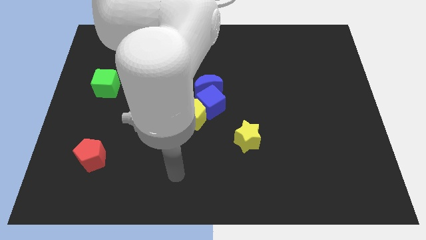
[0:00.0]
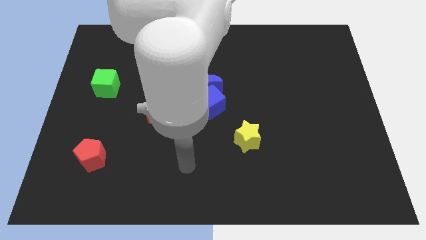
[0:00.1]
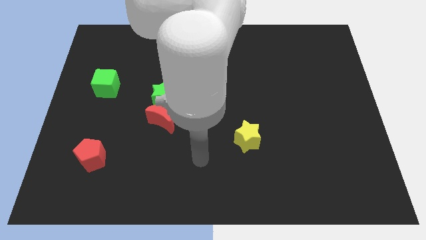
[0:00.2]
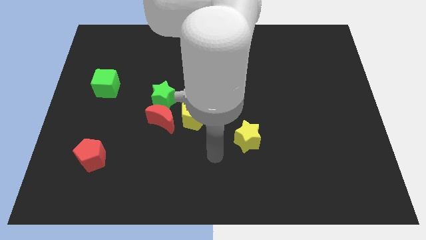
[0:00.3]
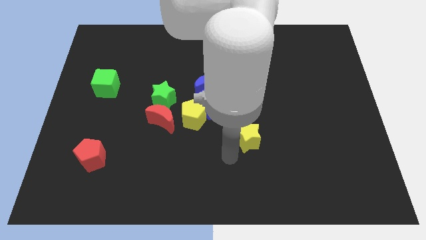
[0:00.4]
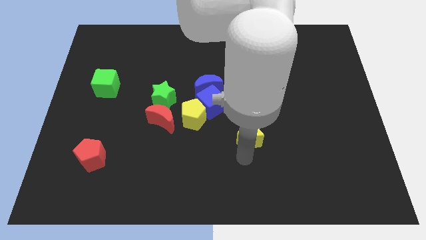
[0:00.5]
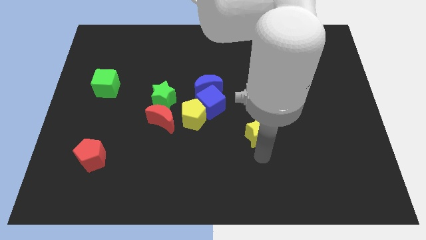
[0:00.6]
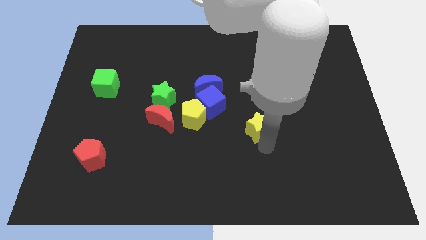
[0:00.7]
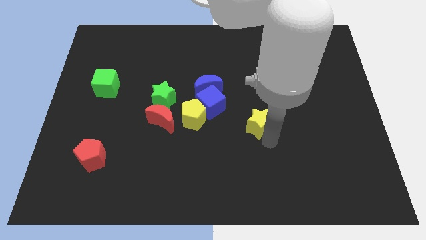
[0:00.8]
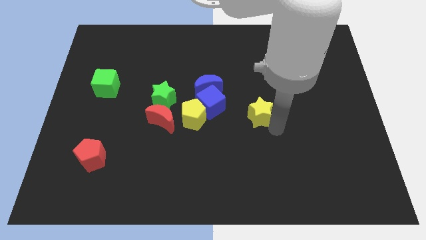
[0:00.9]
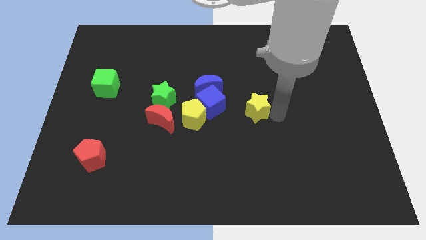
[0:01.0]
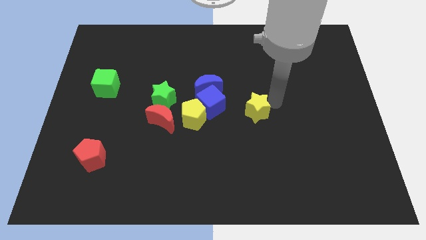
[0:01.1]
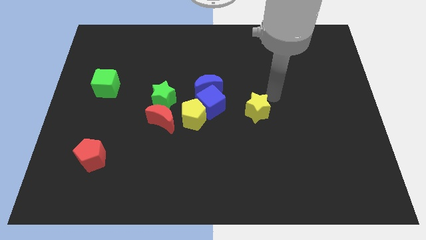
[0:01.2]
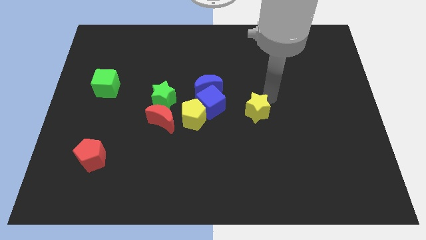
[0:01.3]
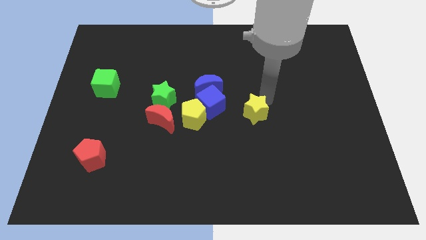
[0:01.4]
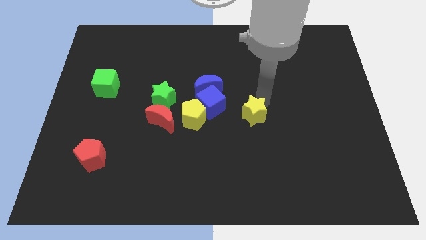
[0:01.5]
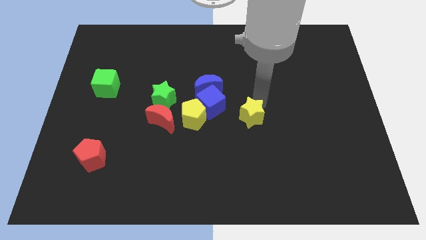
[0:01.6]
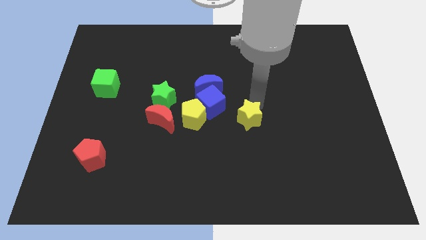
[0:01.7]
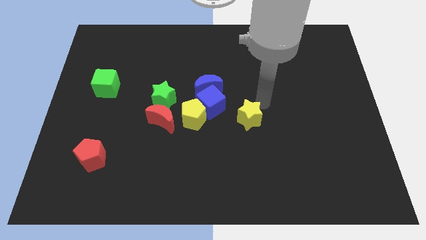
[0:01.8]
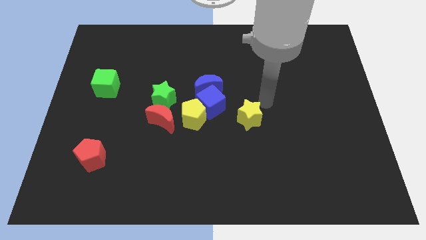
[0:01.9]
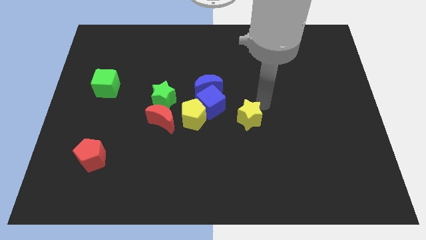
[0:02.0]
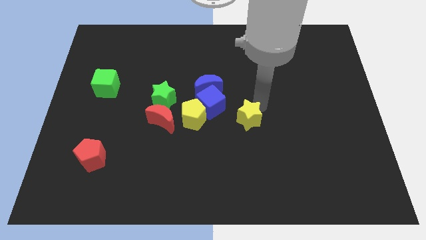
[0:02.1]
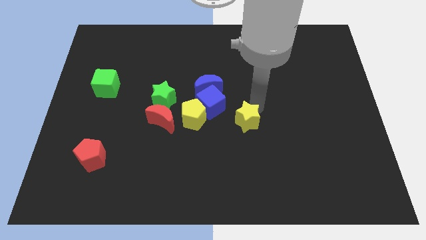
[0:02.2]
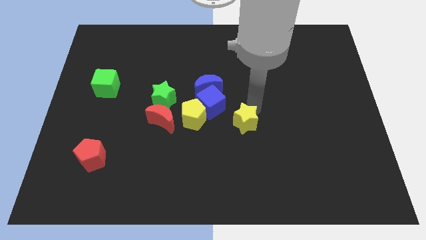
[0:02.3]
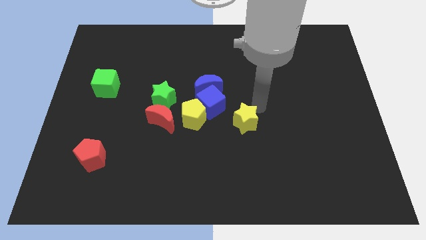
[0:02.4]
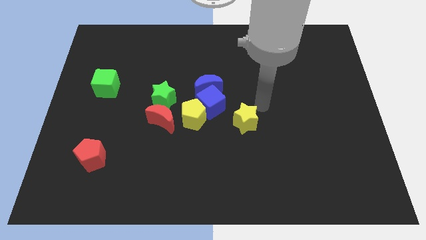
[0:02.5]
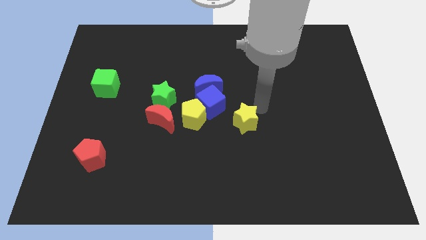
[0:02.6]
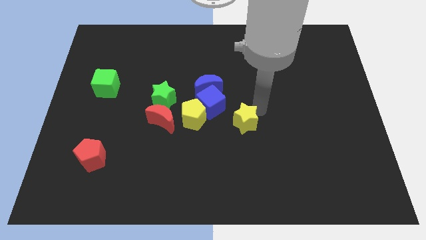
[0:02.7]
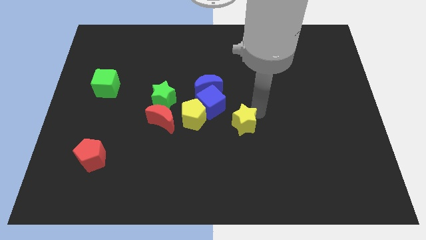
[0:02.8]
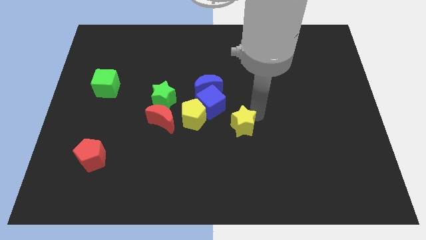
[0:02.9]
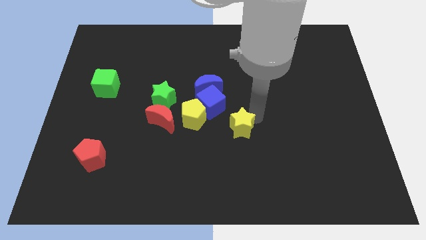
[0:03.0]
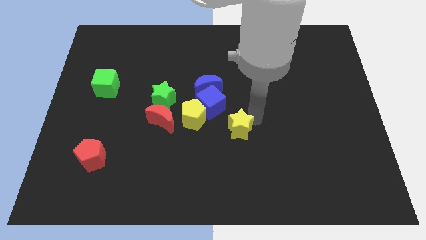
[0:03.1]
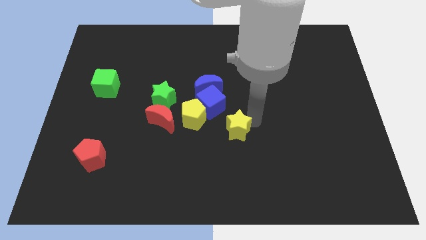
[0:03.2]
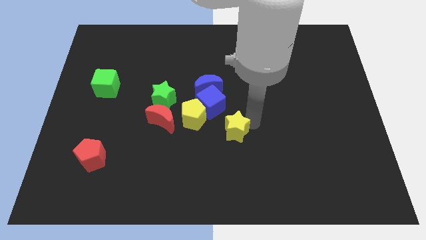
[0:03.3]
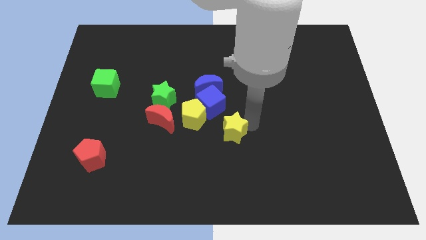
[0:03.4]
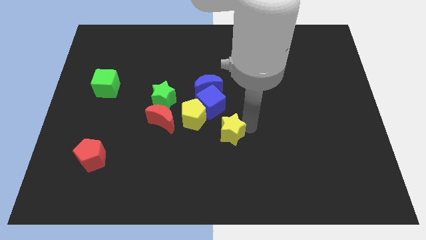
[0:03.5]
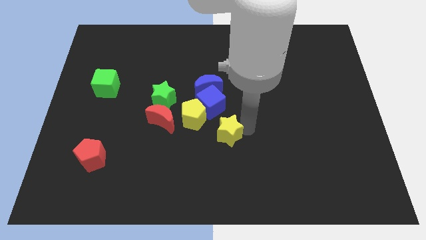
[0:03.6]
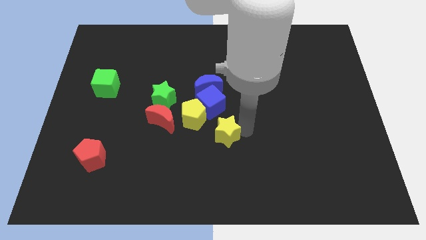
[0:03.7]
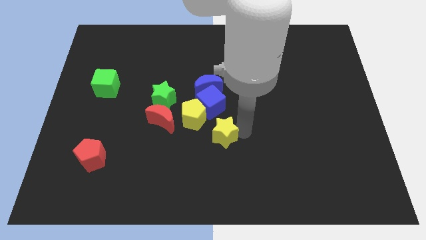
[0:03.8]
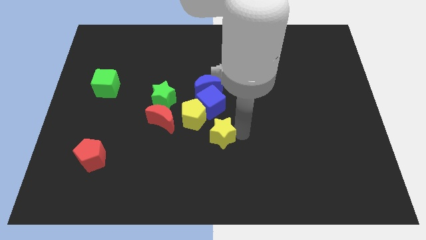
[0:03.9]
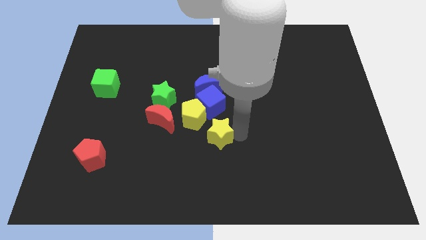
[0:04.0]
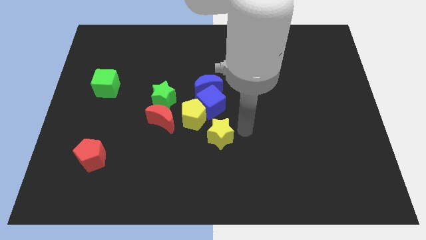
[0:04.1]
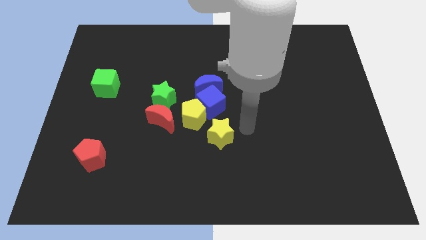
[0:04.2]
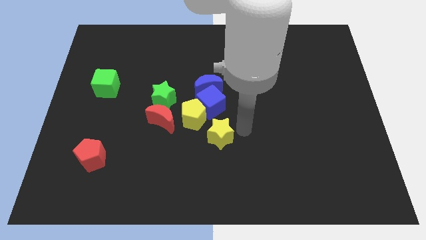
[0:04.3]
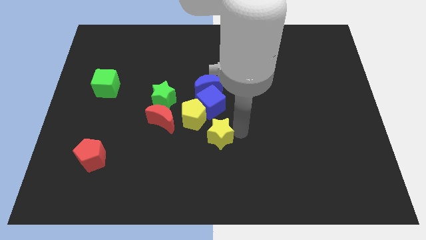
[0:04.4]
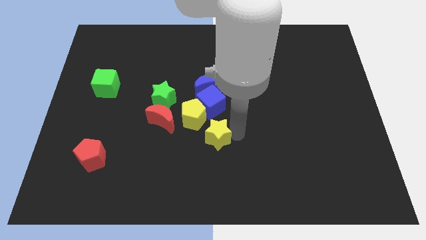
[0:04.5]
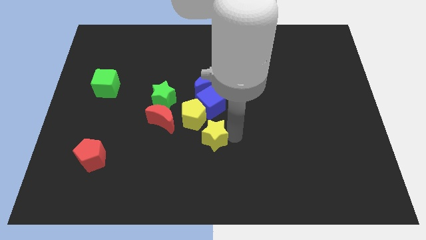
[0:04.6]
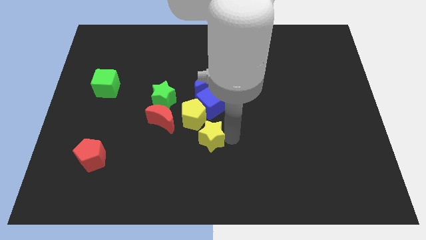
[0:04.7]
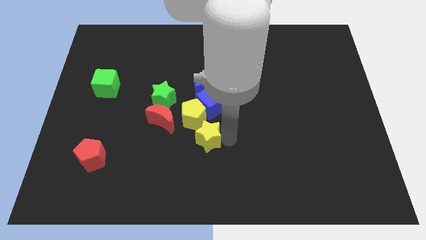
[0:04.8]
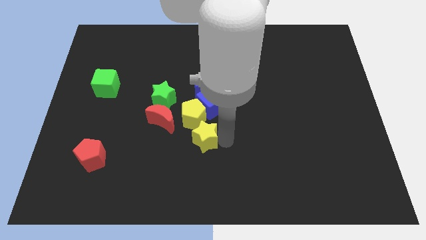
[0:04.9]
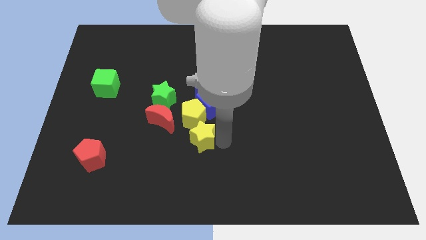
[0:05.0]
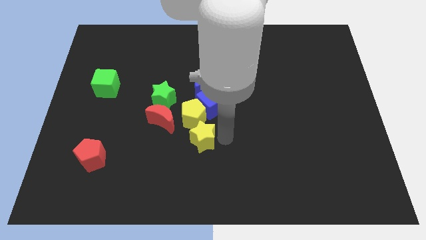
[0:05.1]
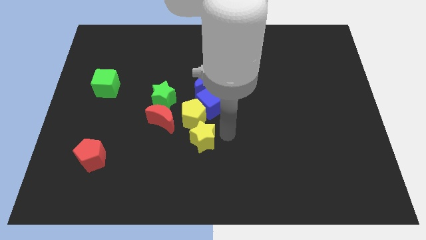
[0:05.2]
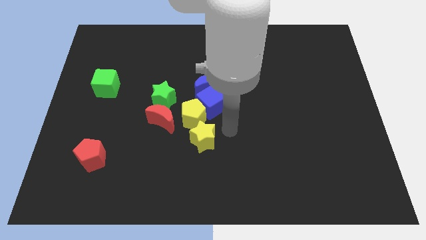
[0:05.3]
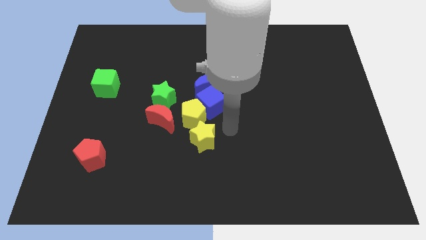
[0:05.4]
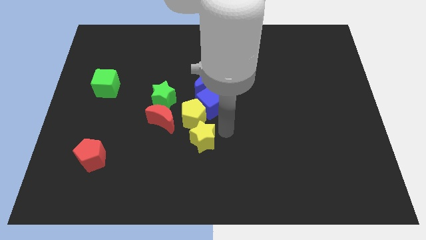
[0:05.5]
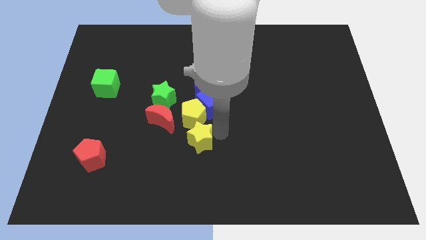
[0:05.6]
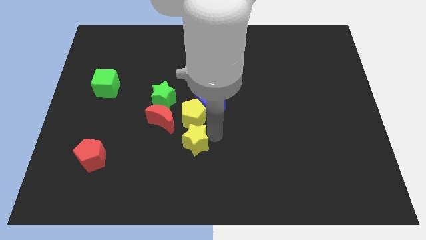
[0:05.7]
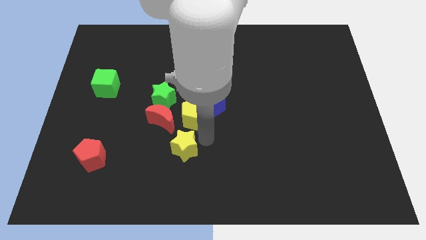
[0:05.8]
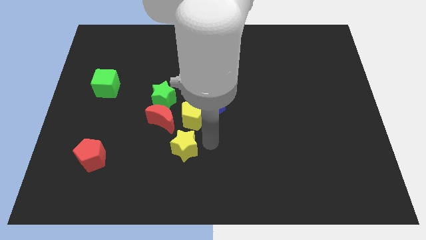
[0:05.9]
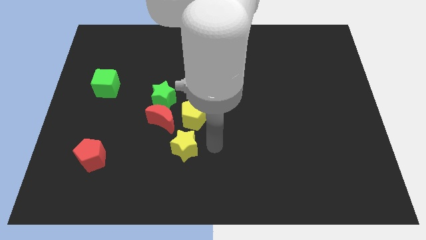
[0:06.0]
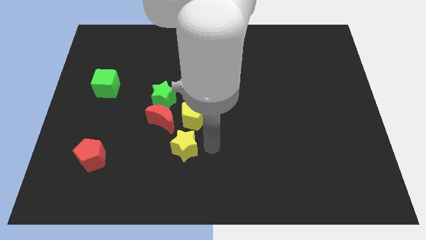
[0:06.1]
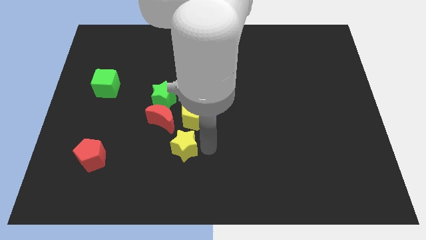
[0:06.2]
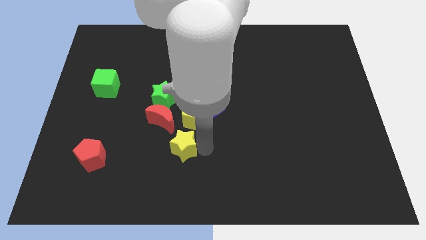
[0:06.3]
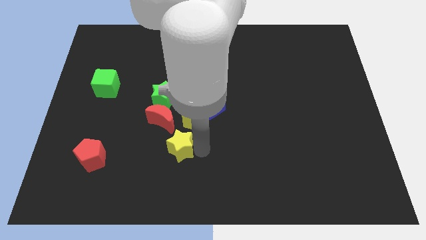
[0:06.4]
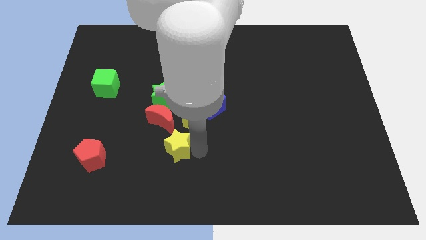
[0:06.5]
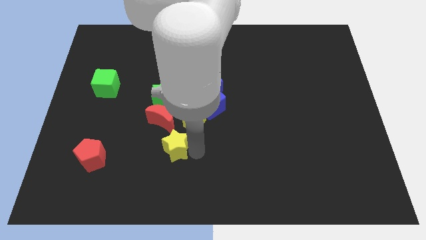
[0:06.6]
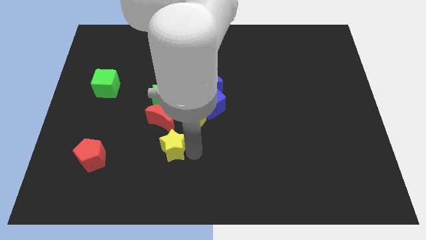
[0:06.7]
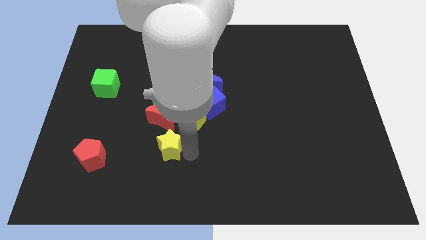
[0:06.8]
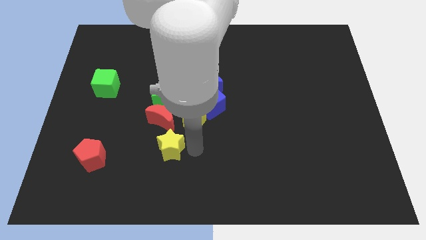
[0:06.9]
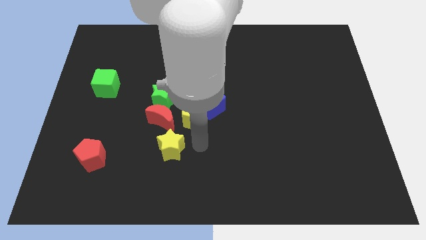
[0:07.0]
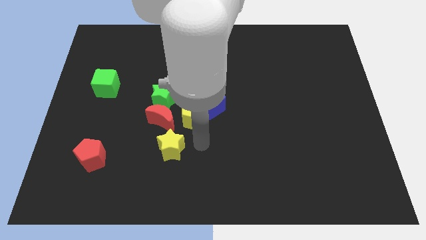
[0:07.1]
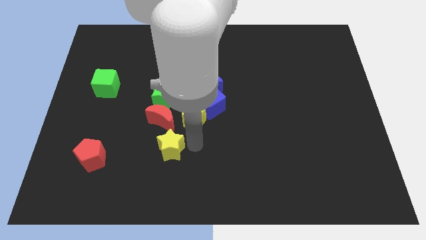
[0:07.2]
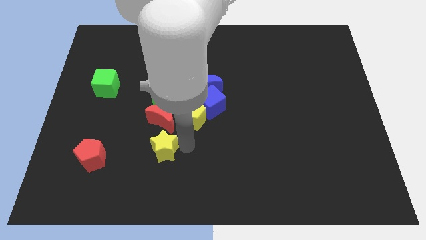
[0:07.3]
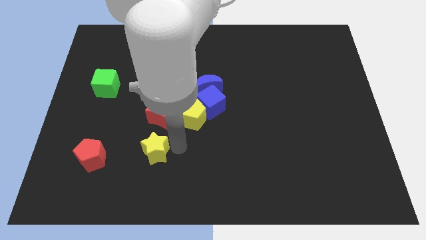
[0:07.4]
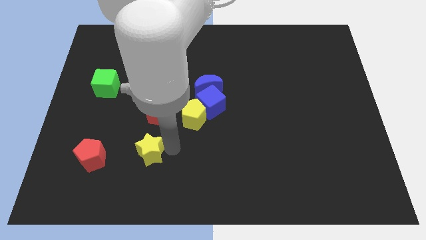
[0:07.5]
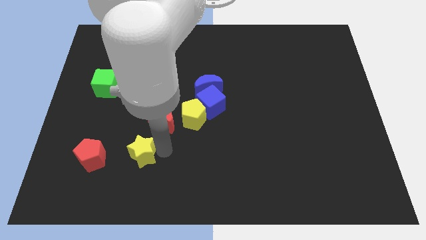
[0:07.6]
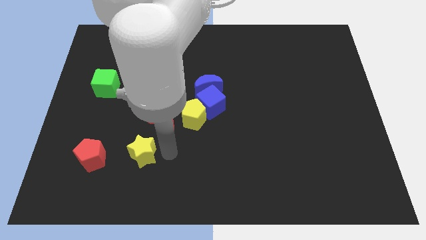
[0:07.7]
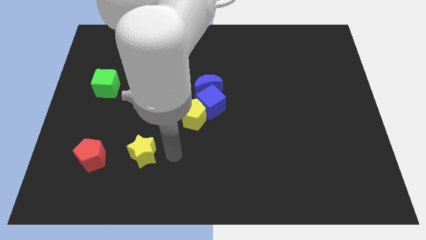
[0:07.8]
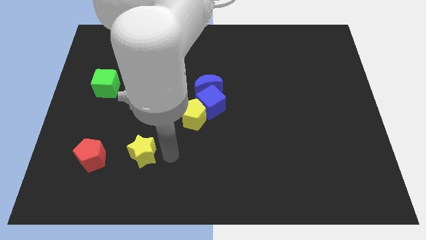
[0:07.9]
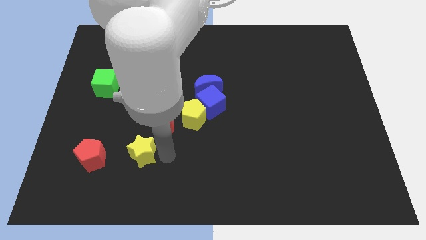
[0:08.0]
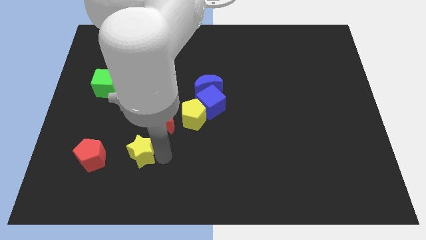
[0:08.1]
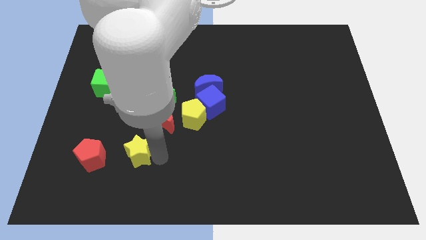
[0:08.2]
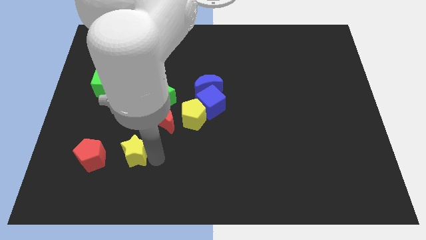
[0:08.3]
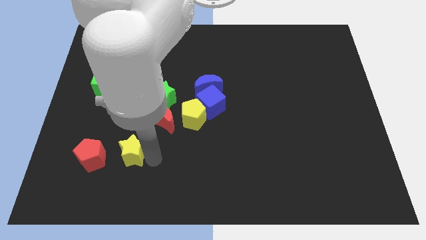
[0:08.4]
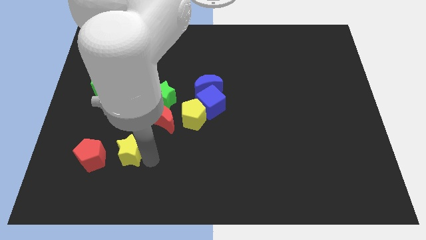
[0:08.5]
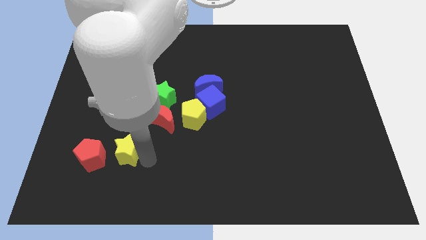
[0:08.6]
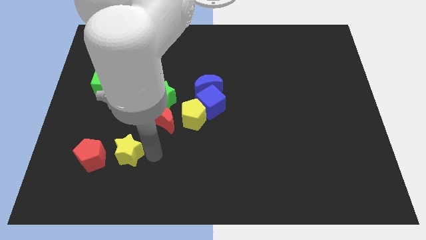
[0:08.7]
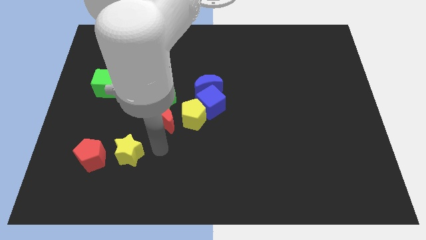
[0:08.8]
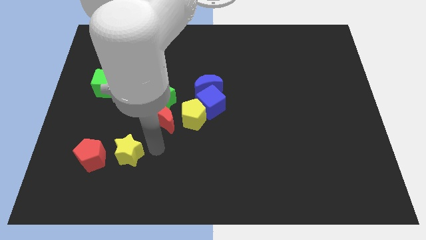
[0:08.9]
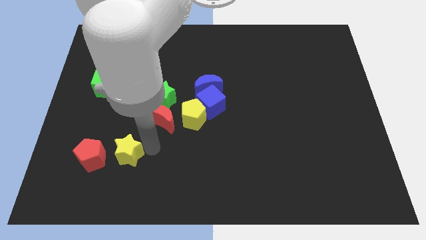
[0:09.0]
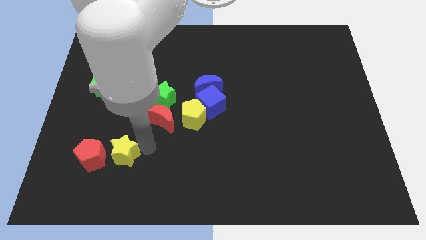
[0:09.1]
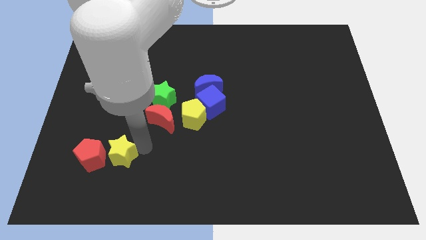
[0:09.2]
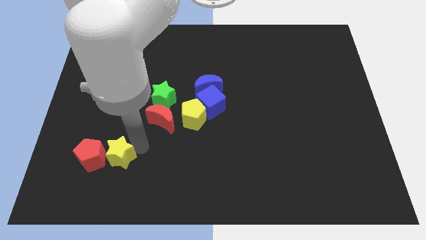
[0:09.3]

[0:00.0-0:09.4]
slide the yellow star to the red pentagon
